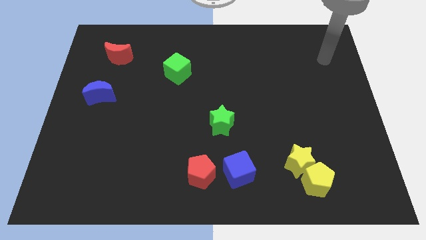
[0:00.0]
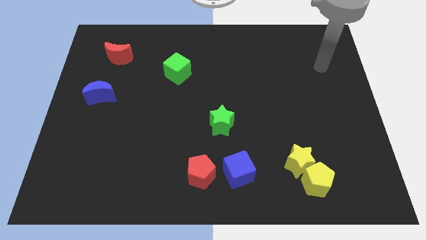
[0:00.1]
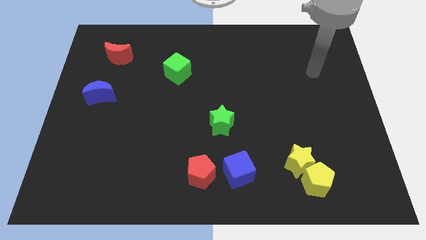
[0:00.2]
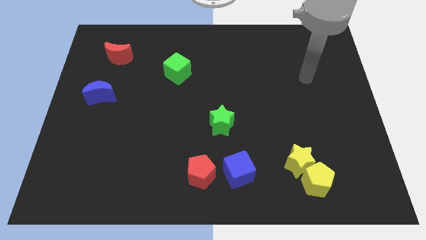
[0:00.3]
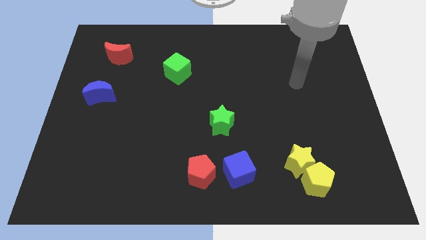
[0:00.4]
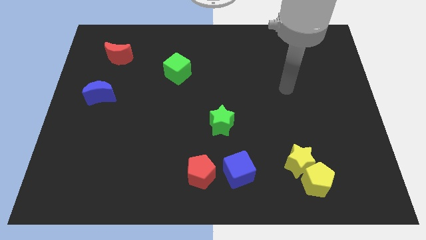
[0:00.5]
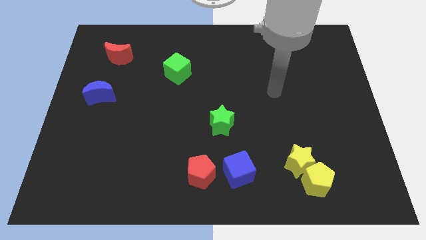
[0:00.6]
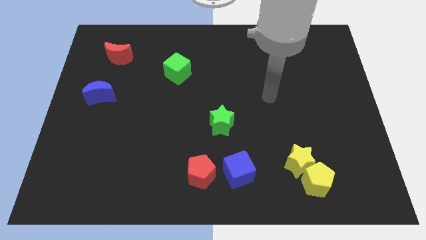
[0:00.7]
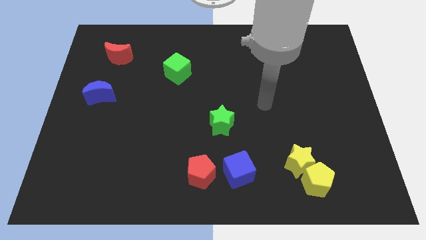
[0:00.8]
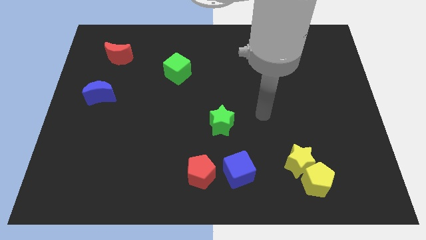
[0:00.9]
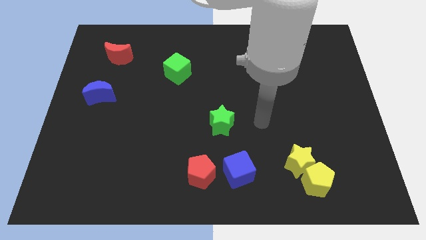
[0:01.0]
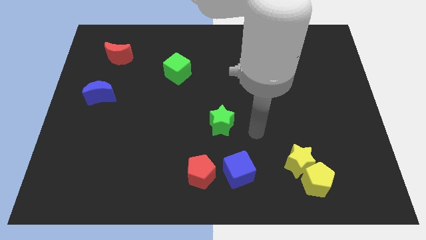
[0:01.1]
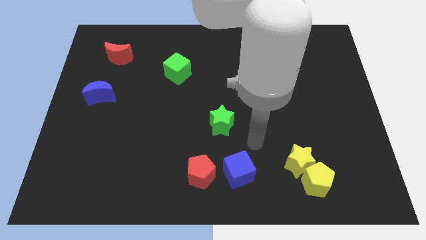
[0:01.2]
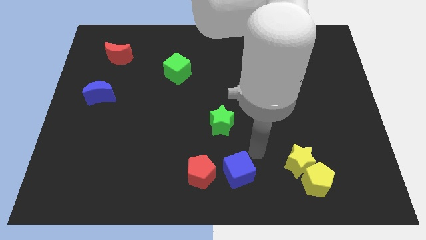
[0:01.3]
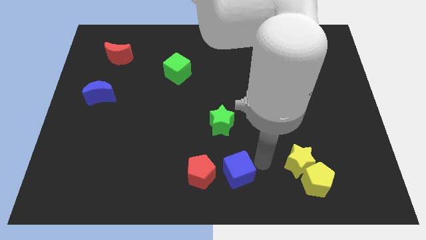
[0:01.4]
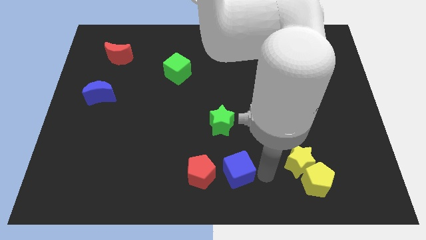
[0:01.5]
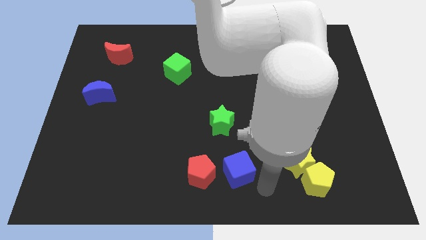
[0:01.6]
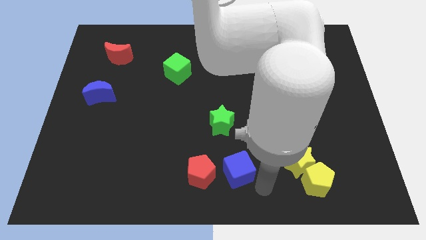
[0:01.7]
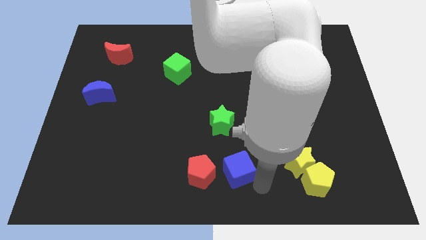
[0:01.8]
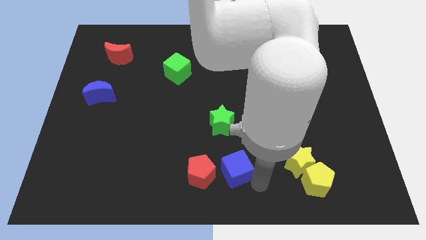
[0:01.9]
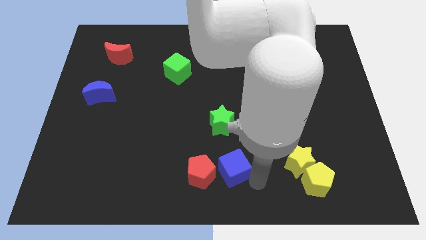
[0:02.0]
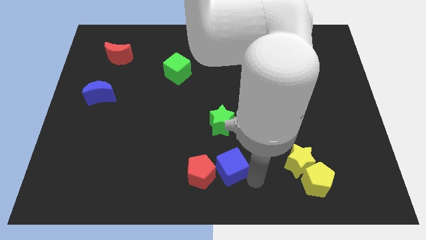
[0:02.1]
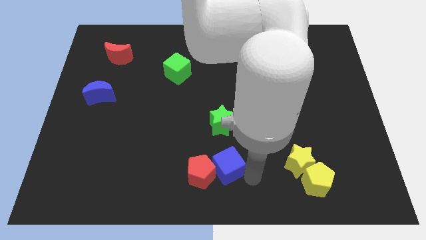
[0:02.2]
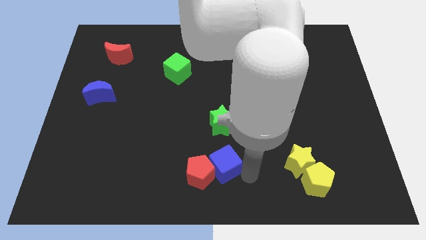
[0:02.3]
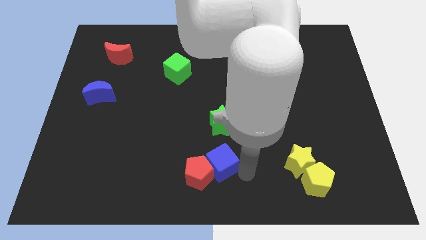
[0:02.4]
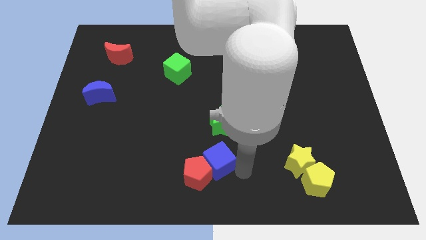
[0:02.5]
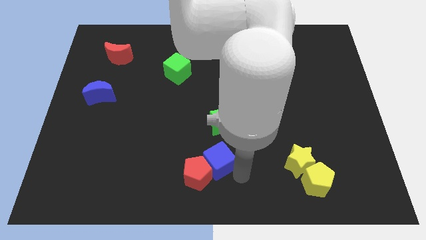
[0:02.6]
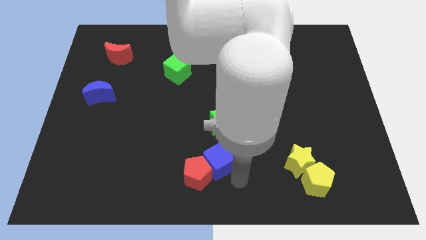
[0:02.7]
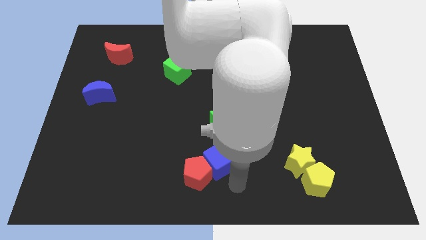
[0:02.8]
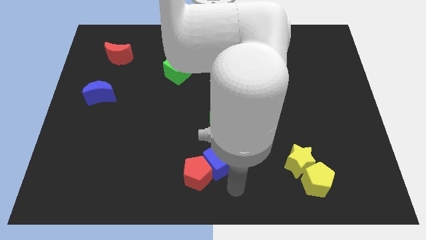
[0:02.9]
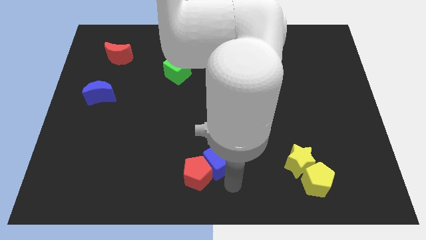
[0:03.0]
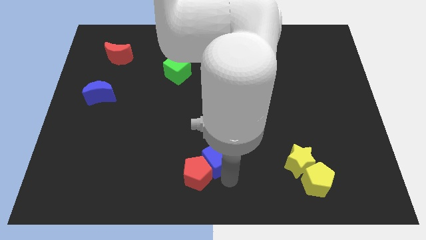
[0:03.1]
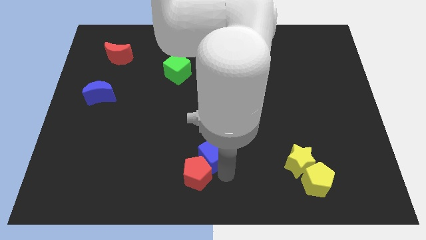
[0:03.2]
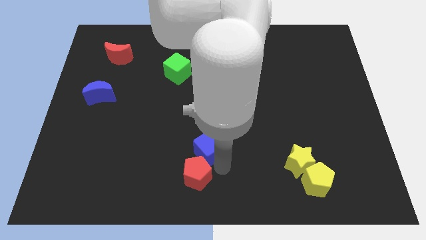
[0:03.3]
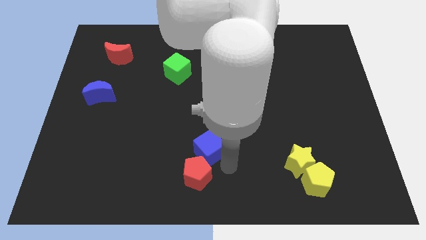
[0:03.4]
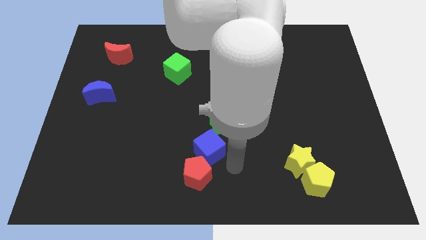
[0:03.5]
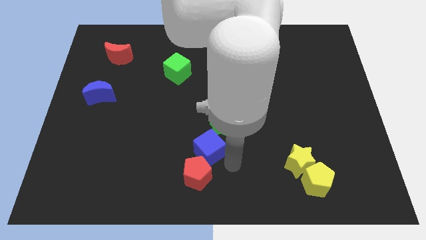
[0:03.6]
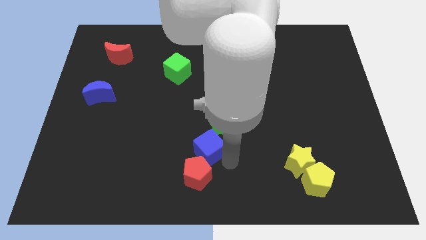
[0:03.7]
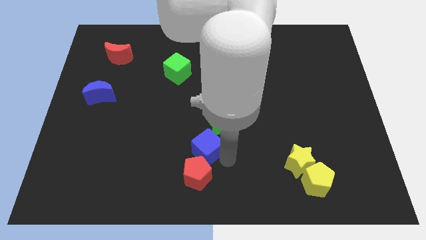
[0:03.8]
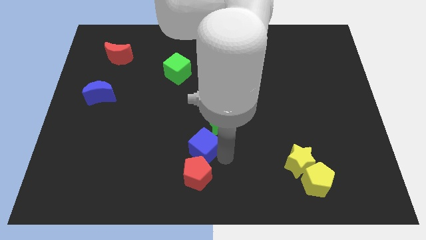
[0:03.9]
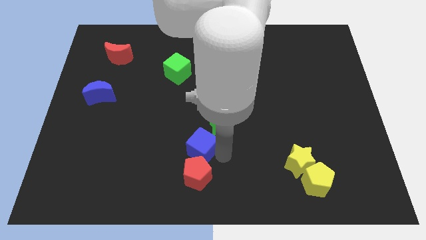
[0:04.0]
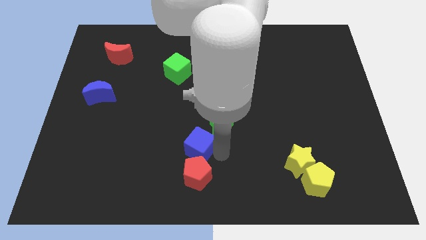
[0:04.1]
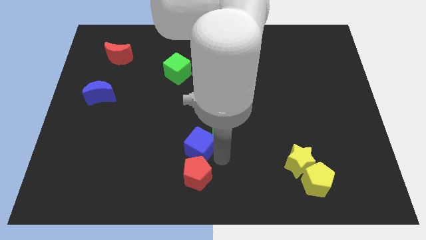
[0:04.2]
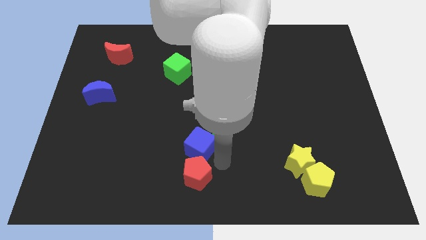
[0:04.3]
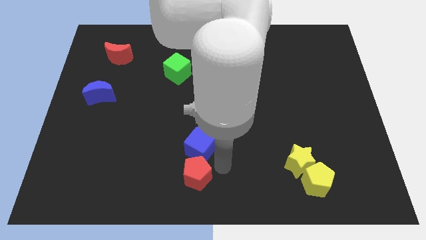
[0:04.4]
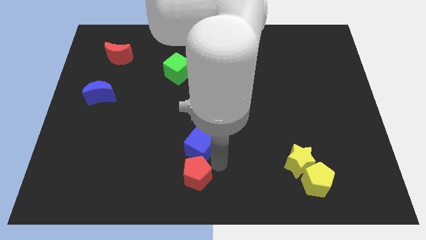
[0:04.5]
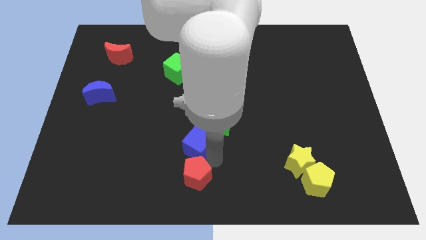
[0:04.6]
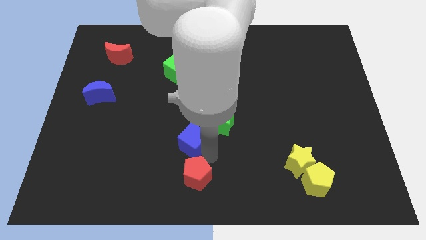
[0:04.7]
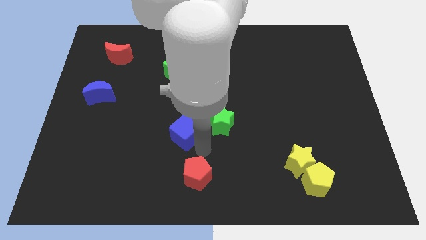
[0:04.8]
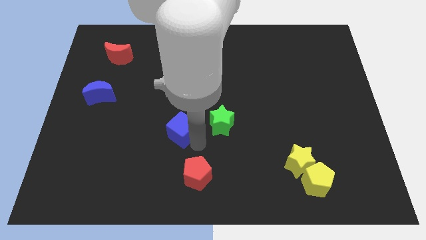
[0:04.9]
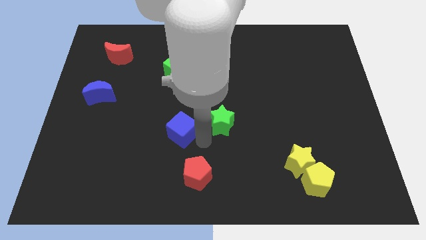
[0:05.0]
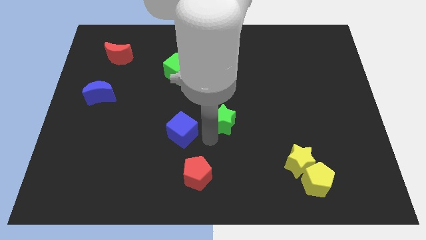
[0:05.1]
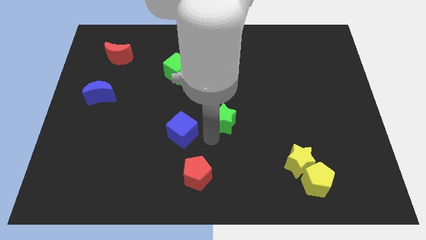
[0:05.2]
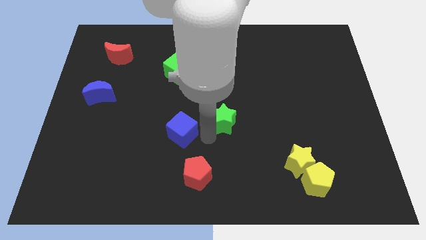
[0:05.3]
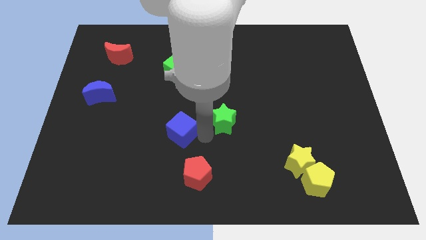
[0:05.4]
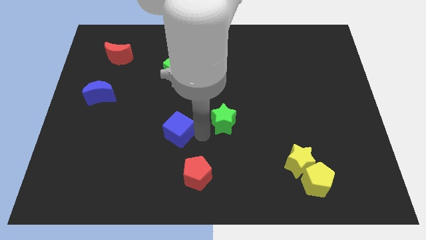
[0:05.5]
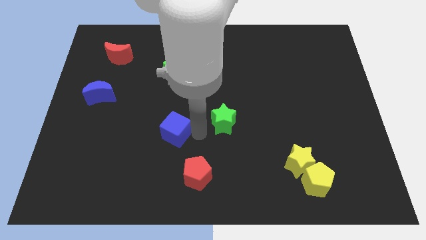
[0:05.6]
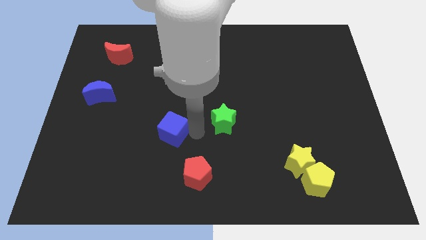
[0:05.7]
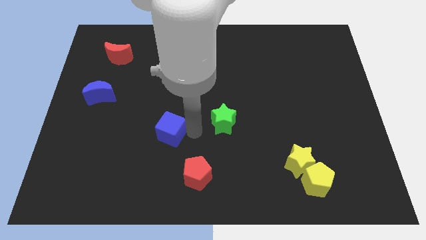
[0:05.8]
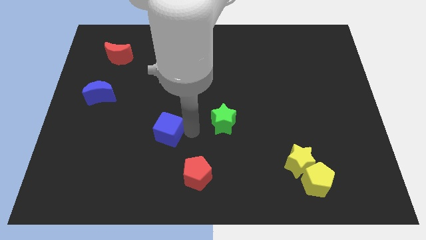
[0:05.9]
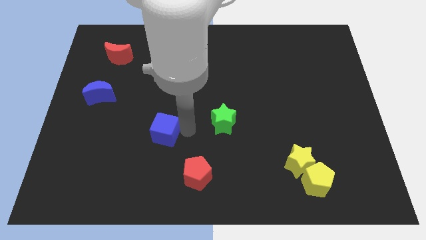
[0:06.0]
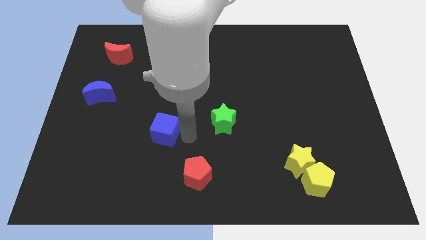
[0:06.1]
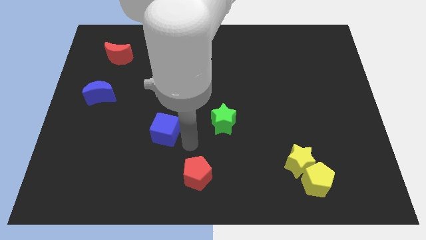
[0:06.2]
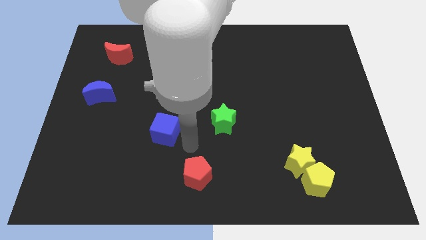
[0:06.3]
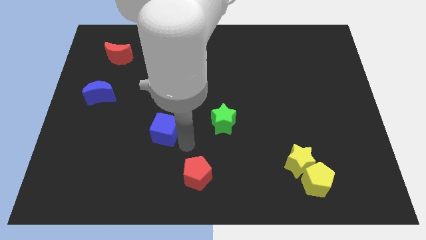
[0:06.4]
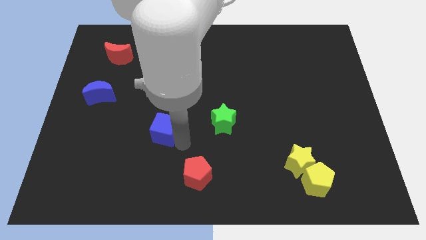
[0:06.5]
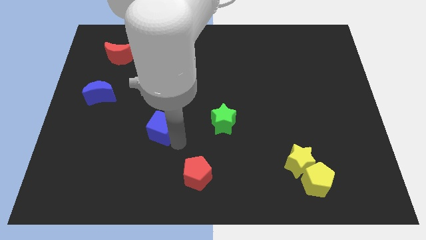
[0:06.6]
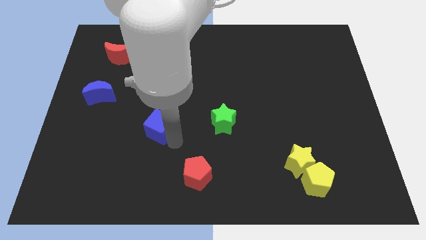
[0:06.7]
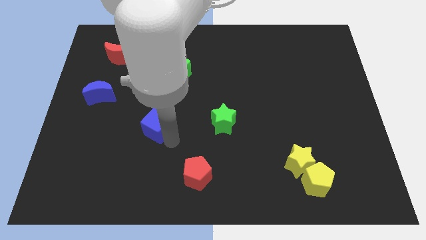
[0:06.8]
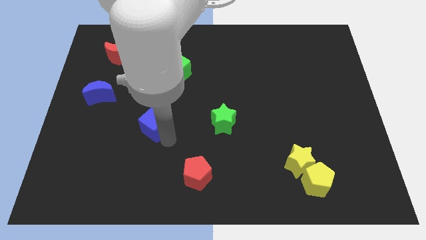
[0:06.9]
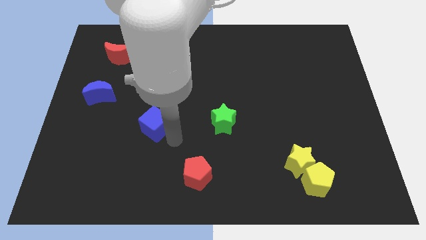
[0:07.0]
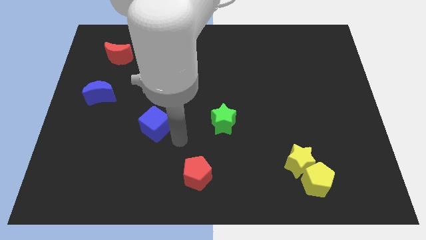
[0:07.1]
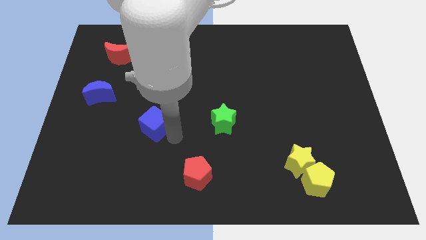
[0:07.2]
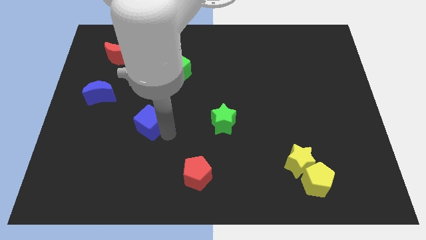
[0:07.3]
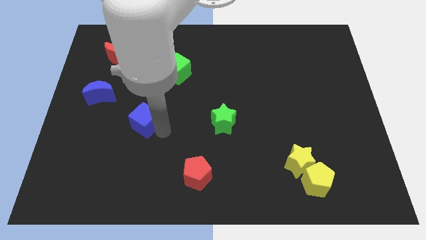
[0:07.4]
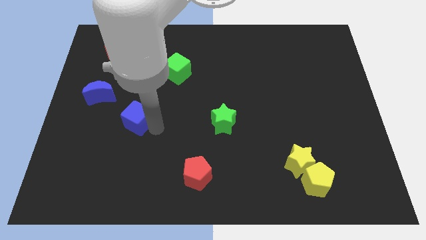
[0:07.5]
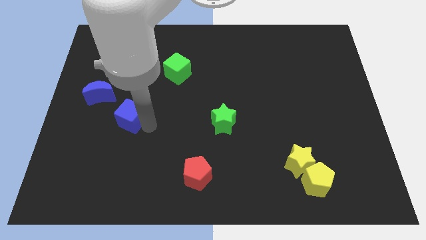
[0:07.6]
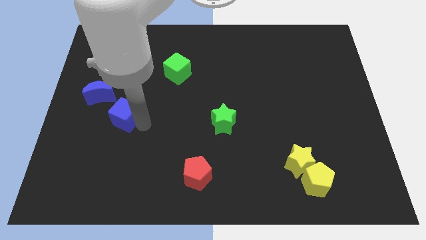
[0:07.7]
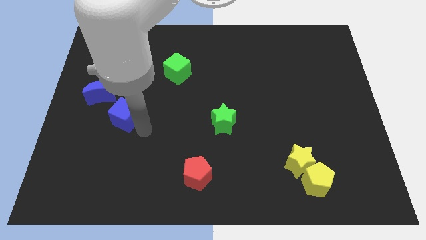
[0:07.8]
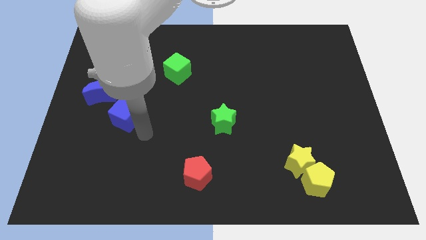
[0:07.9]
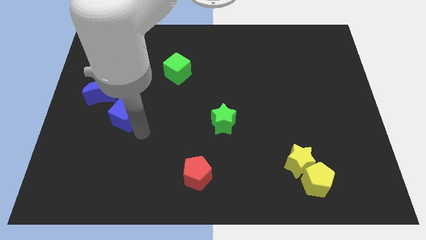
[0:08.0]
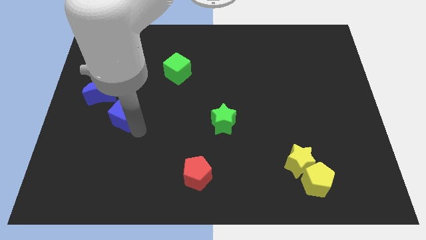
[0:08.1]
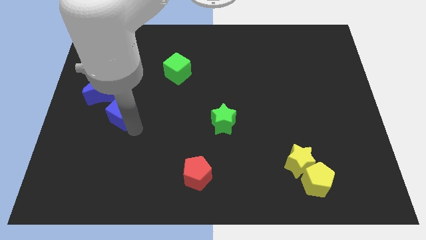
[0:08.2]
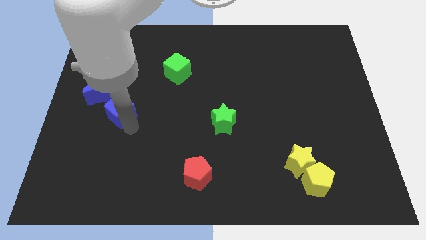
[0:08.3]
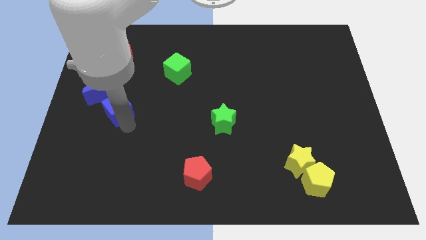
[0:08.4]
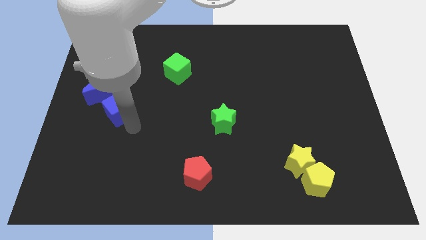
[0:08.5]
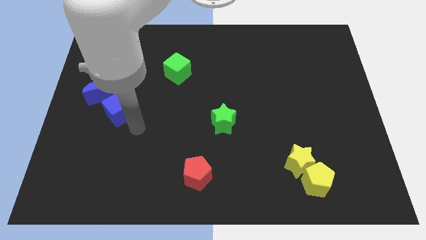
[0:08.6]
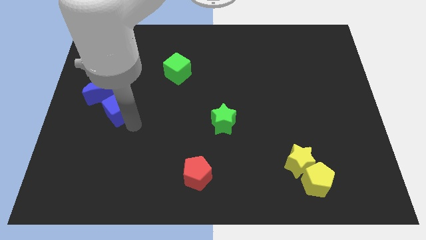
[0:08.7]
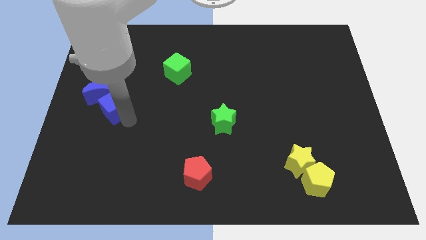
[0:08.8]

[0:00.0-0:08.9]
move the blue cube towards the blue moon
